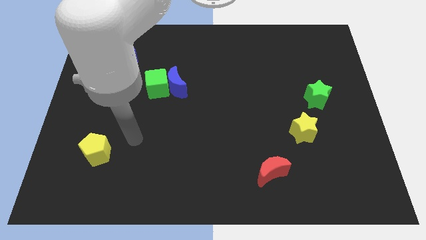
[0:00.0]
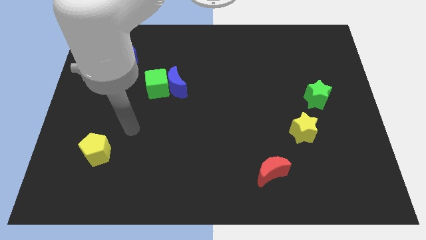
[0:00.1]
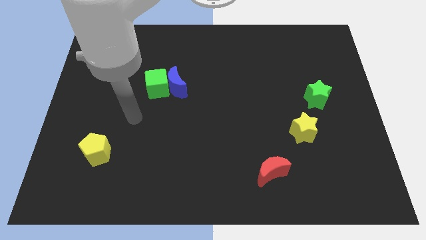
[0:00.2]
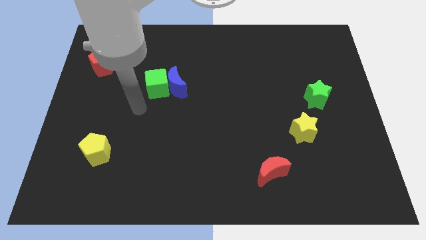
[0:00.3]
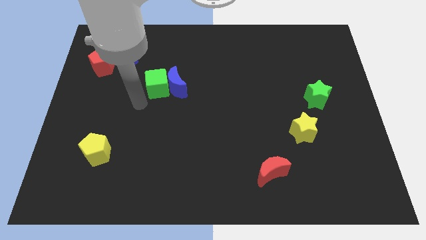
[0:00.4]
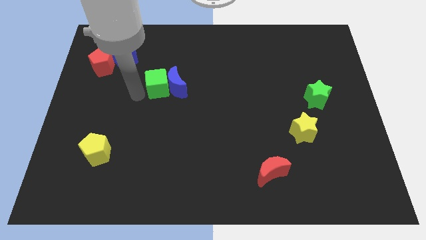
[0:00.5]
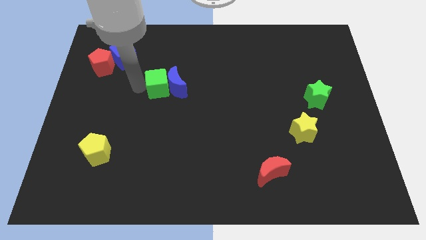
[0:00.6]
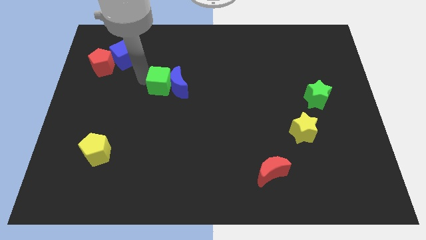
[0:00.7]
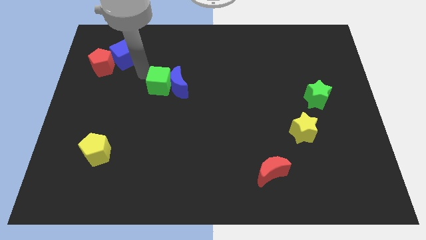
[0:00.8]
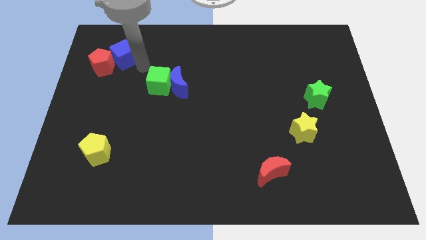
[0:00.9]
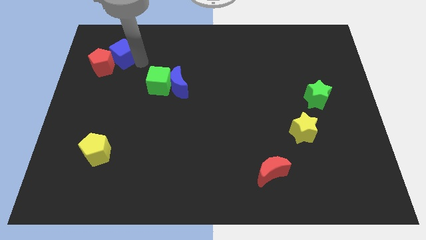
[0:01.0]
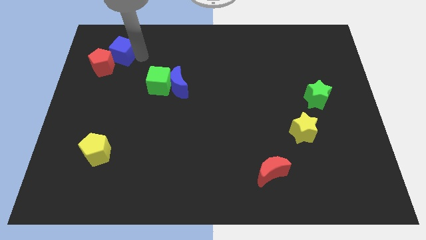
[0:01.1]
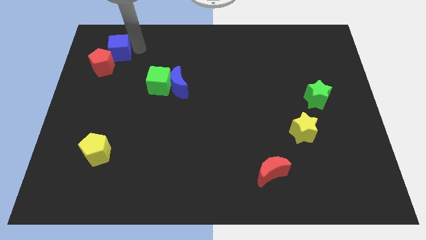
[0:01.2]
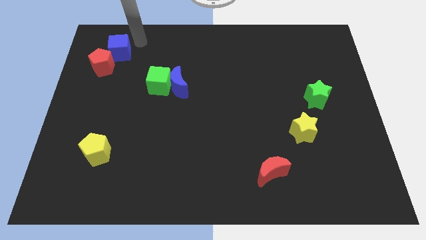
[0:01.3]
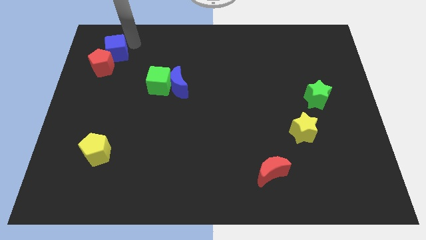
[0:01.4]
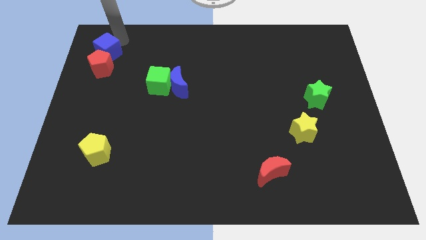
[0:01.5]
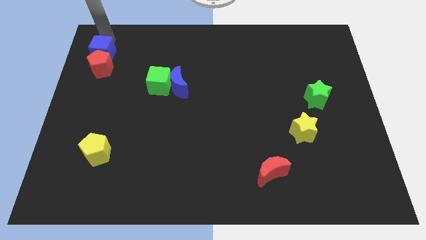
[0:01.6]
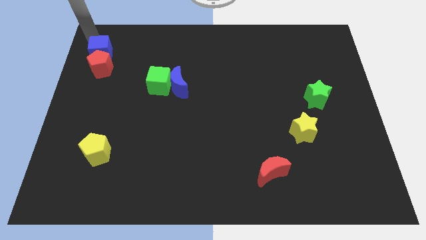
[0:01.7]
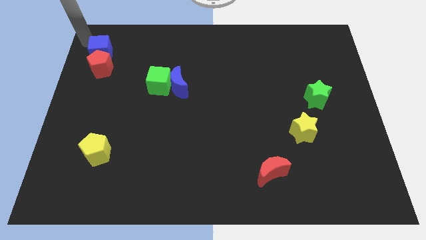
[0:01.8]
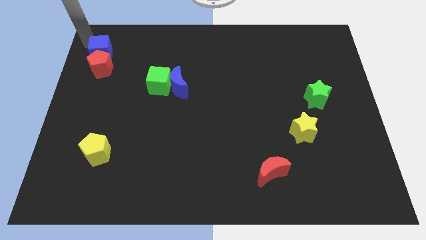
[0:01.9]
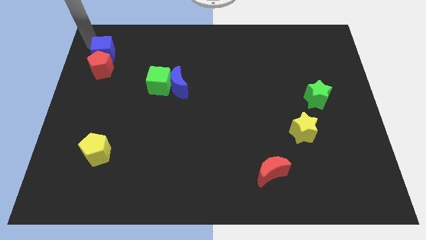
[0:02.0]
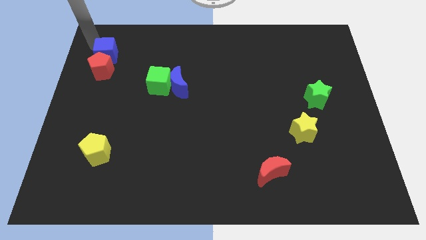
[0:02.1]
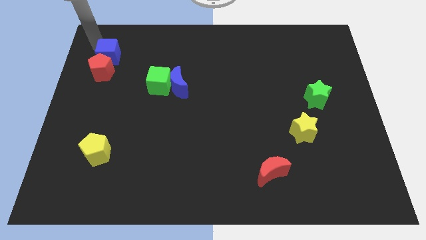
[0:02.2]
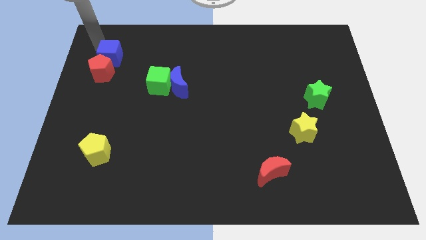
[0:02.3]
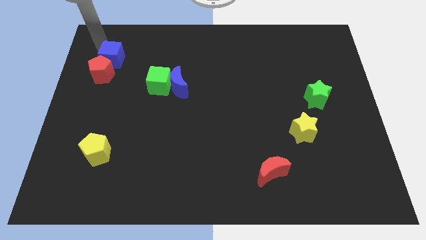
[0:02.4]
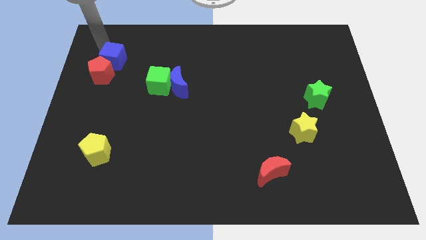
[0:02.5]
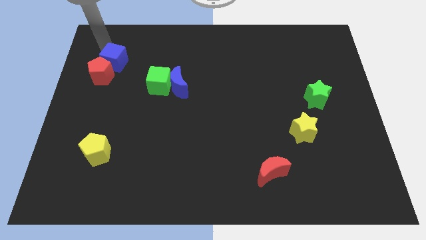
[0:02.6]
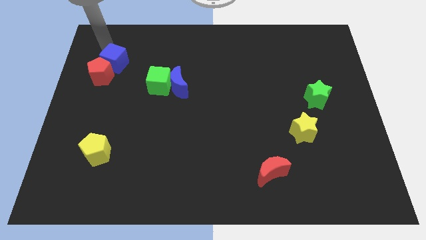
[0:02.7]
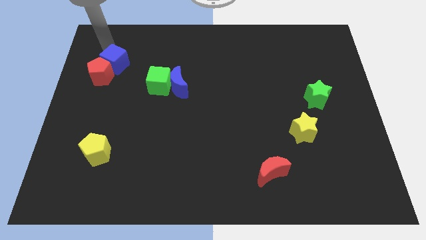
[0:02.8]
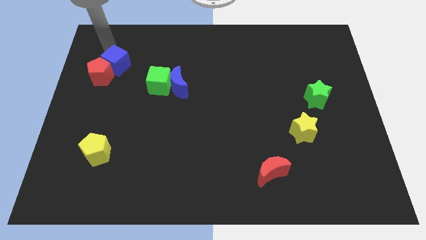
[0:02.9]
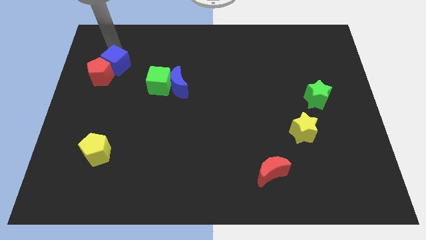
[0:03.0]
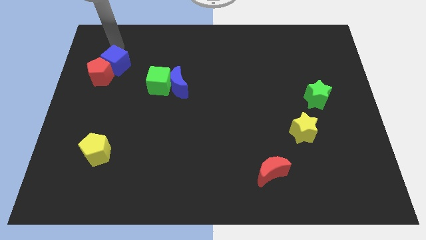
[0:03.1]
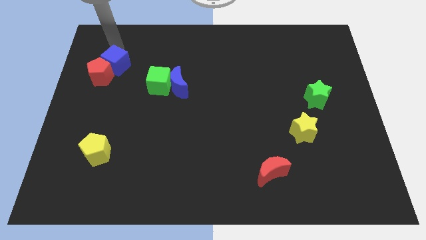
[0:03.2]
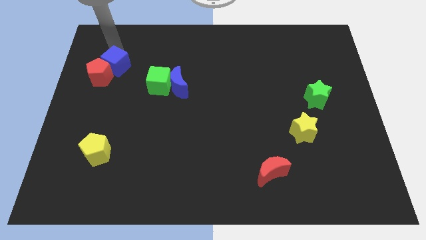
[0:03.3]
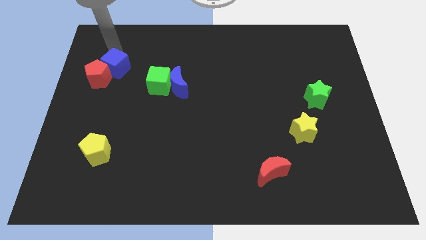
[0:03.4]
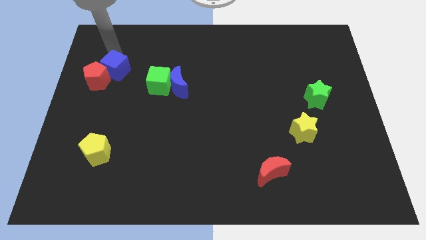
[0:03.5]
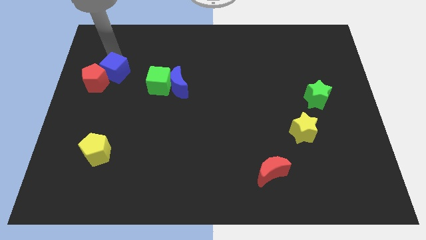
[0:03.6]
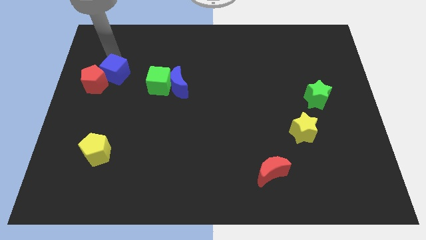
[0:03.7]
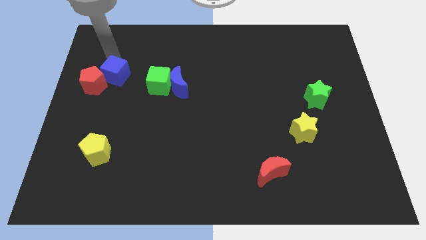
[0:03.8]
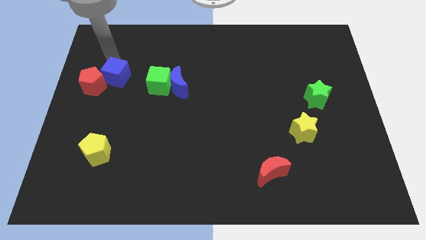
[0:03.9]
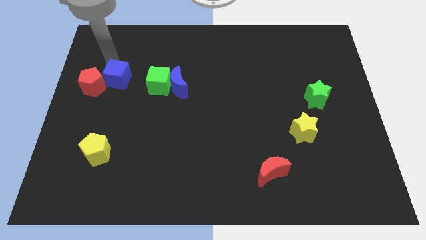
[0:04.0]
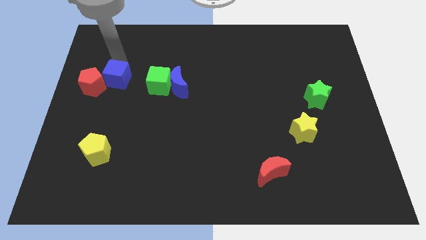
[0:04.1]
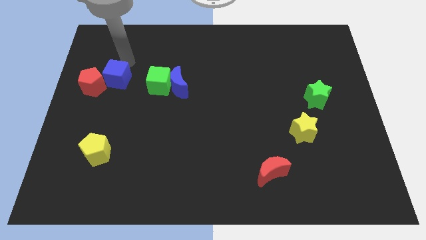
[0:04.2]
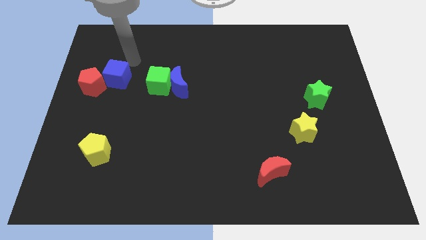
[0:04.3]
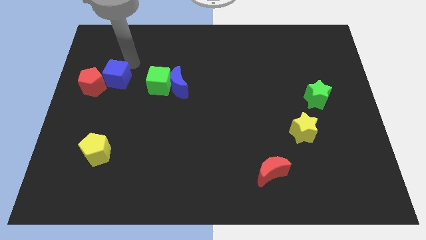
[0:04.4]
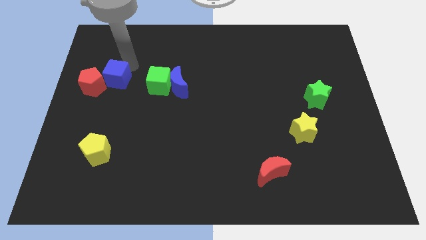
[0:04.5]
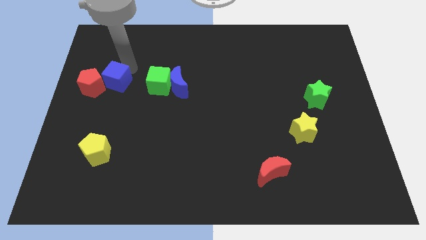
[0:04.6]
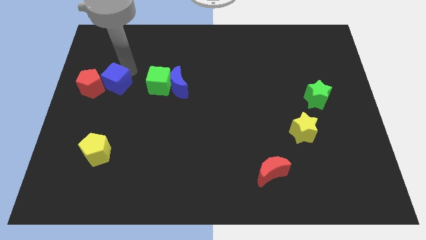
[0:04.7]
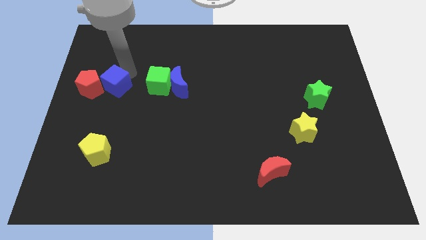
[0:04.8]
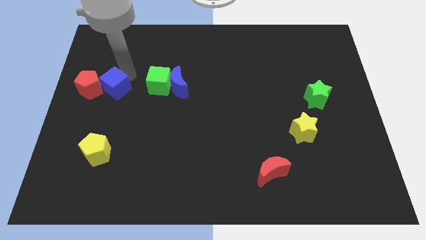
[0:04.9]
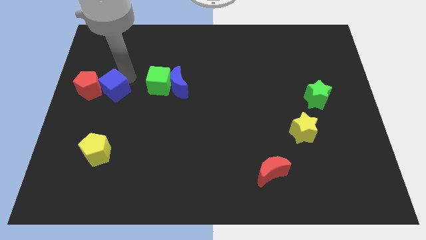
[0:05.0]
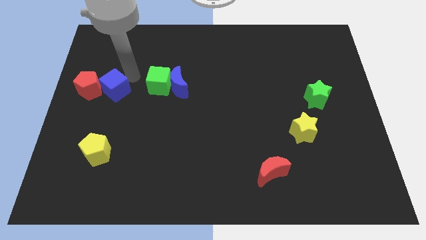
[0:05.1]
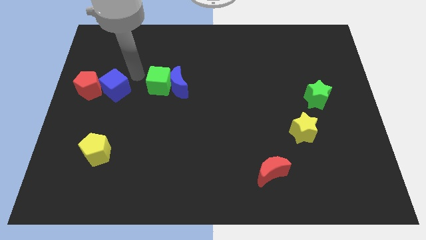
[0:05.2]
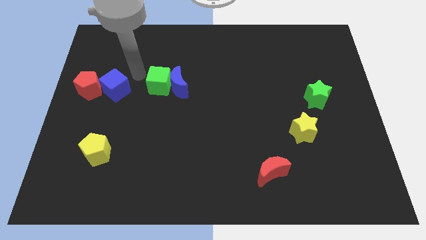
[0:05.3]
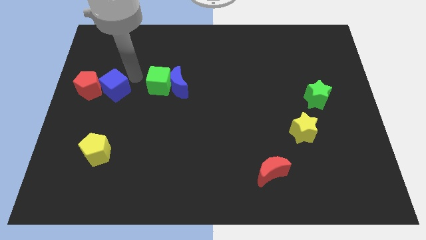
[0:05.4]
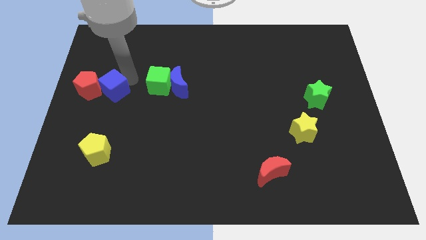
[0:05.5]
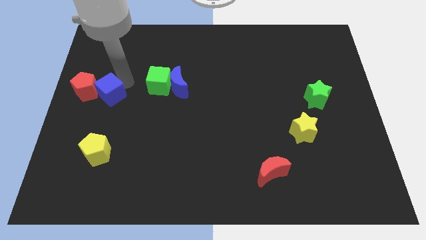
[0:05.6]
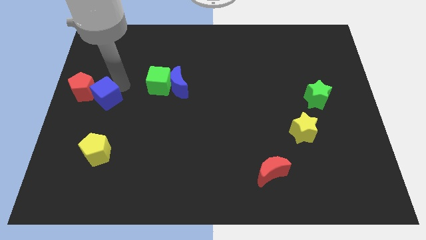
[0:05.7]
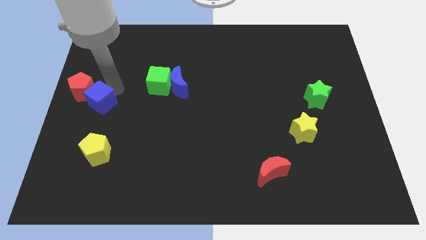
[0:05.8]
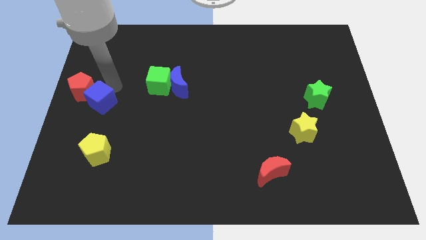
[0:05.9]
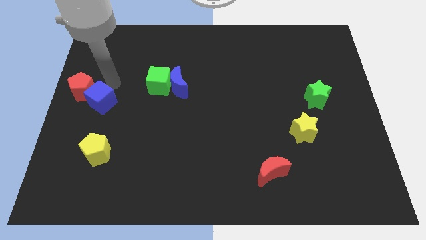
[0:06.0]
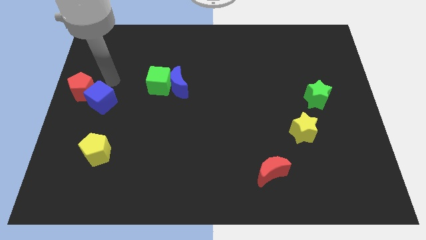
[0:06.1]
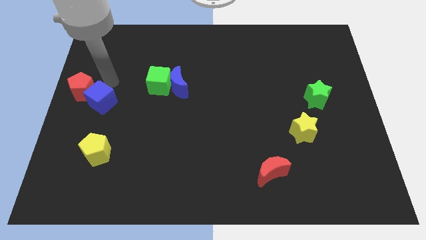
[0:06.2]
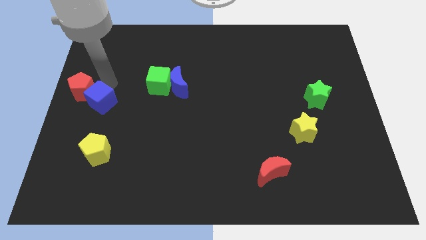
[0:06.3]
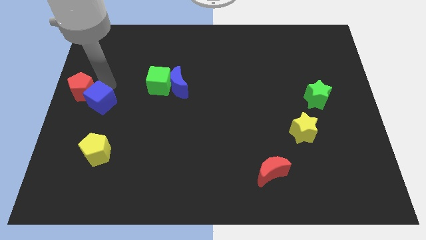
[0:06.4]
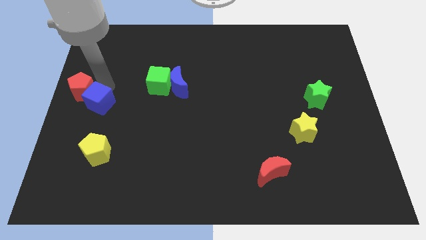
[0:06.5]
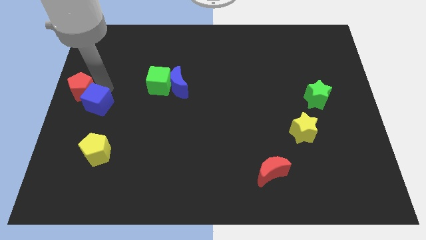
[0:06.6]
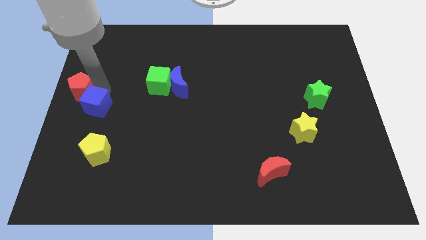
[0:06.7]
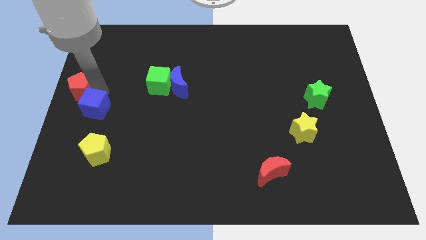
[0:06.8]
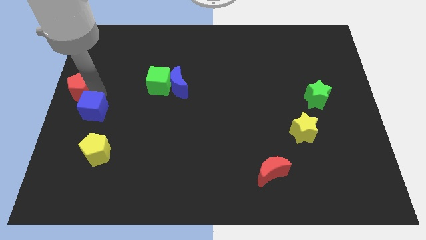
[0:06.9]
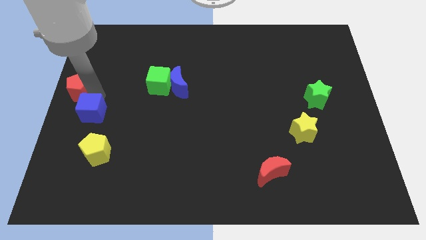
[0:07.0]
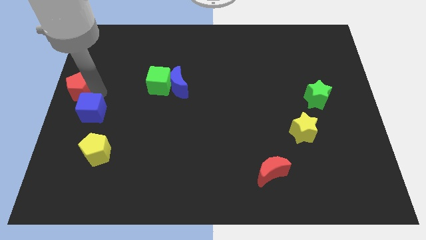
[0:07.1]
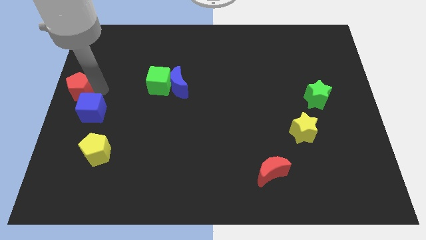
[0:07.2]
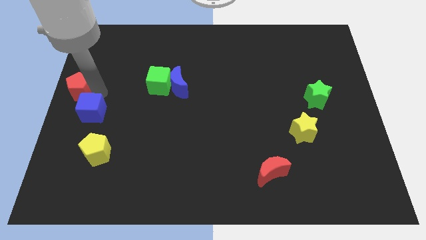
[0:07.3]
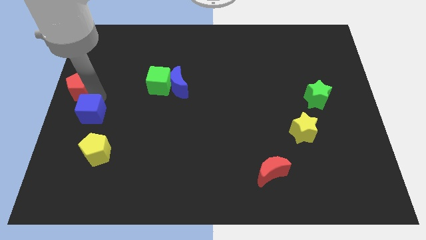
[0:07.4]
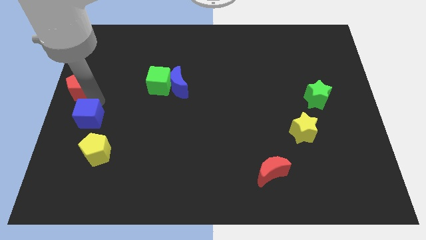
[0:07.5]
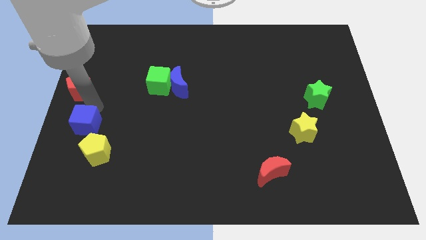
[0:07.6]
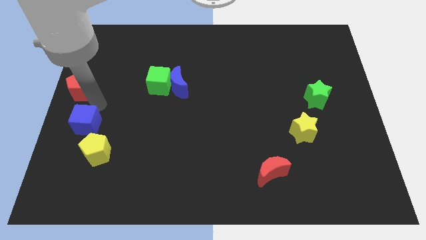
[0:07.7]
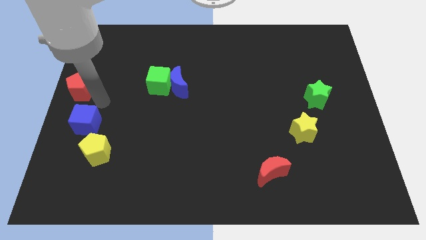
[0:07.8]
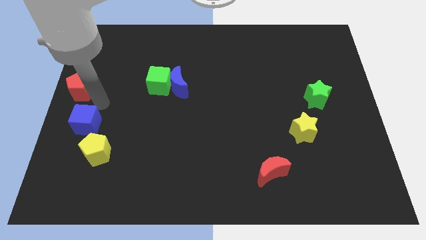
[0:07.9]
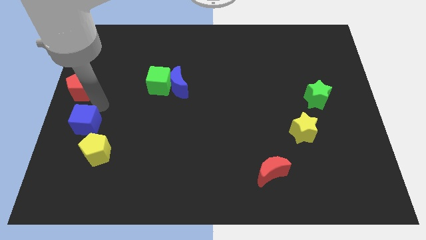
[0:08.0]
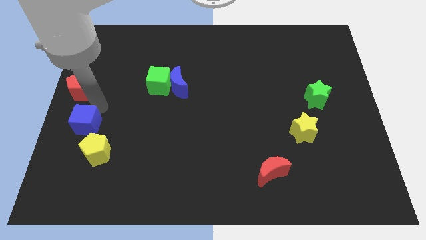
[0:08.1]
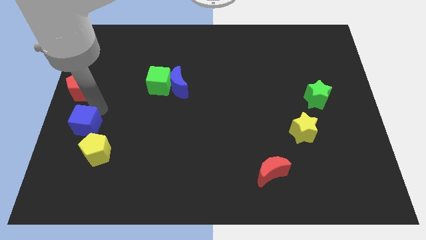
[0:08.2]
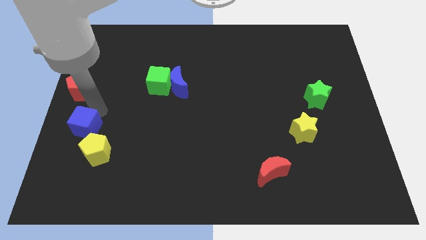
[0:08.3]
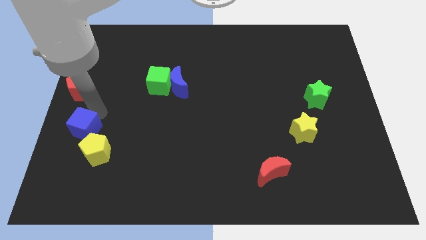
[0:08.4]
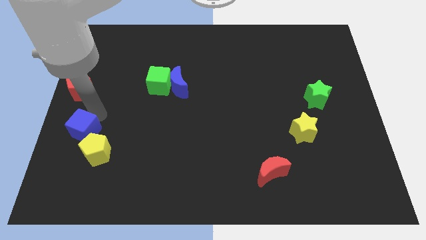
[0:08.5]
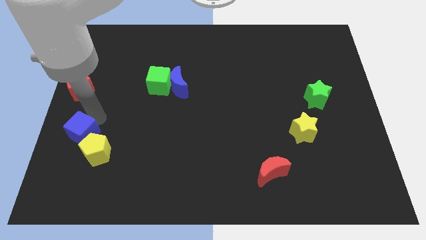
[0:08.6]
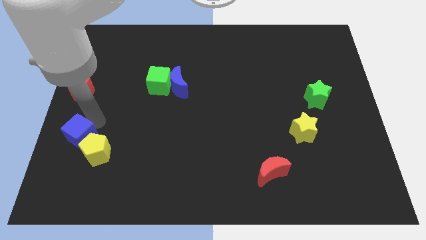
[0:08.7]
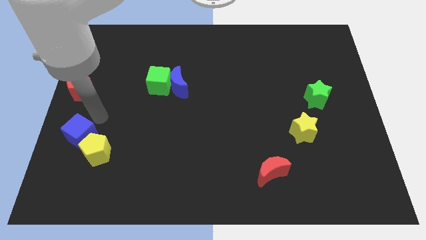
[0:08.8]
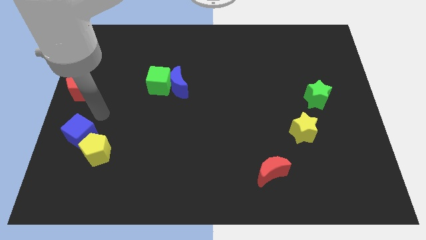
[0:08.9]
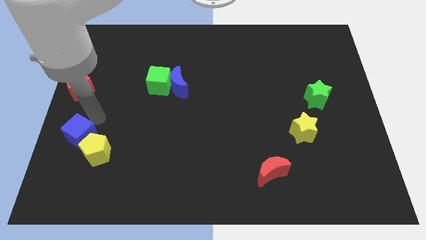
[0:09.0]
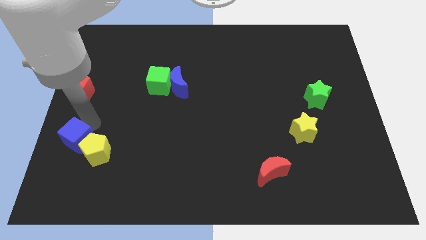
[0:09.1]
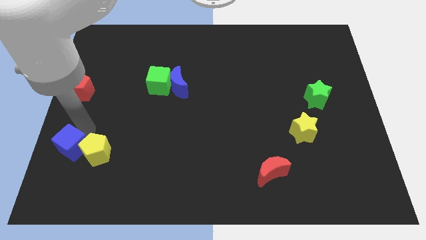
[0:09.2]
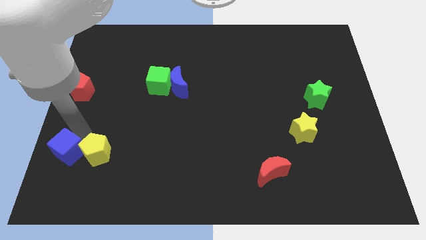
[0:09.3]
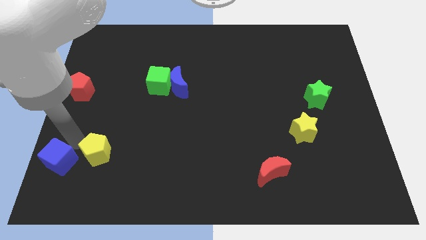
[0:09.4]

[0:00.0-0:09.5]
push the blue cube to the bottom left
